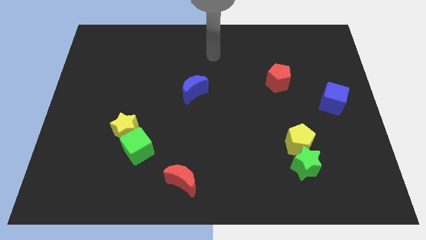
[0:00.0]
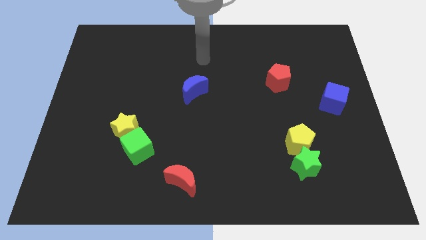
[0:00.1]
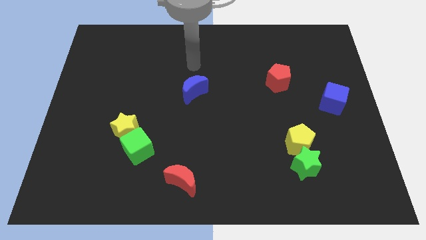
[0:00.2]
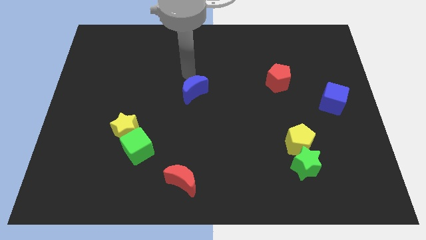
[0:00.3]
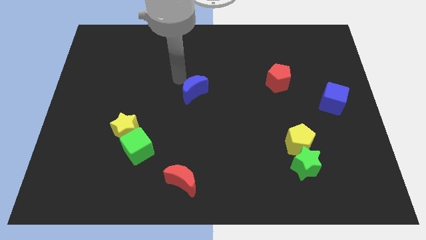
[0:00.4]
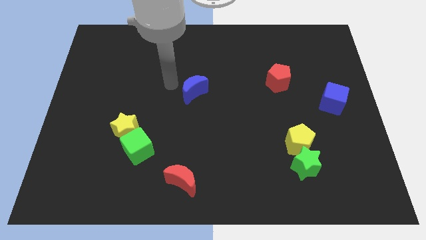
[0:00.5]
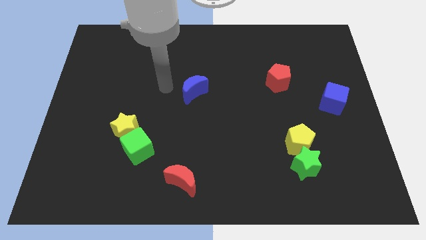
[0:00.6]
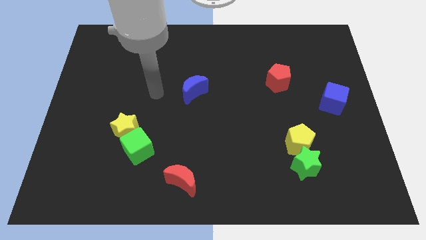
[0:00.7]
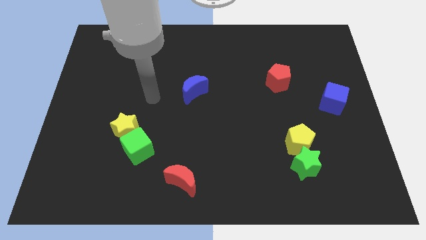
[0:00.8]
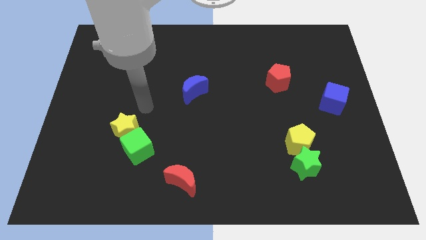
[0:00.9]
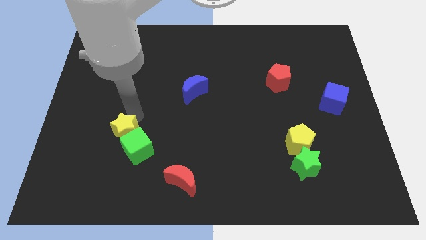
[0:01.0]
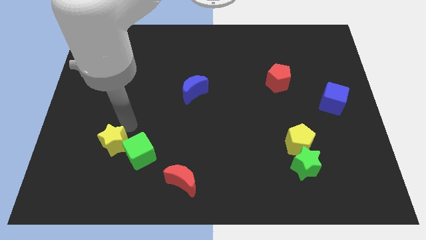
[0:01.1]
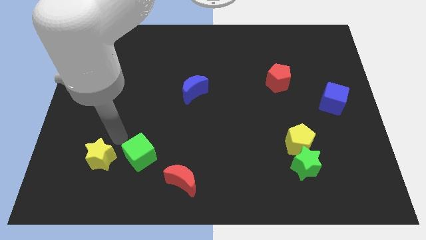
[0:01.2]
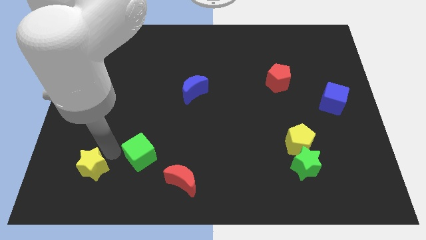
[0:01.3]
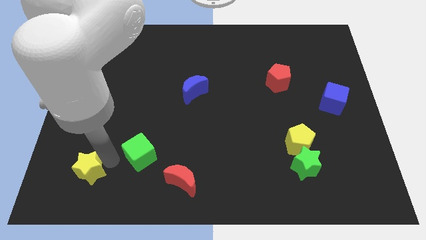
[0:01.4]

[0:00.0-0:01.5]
separate the green cube from the yellow star

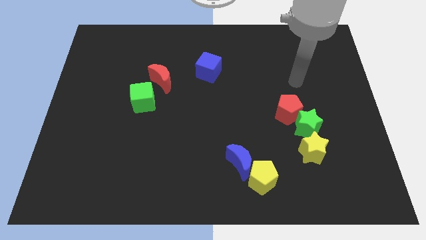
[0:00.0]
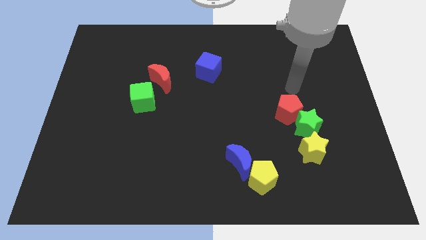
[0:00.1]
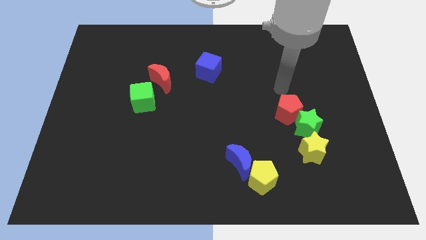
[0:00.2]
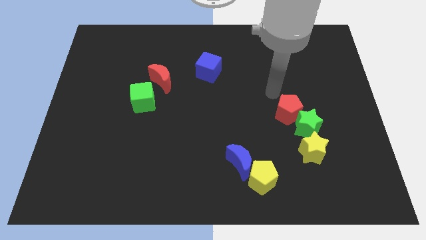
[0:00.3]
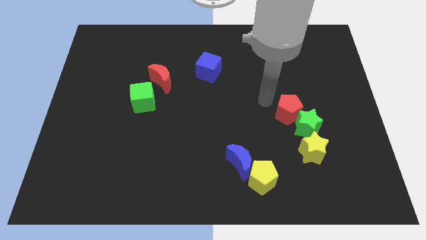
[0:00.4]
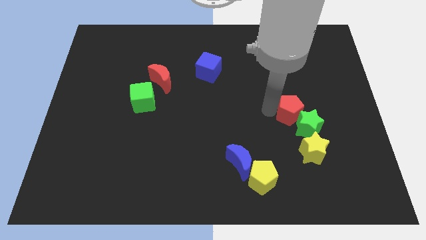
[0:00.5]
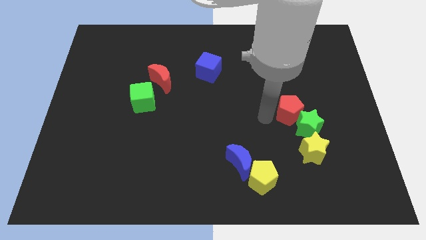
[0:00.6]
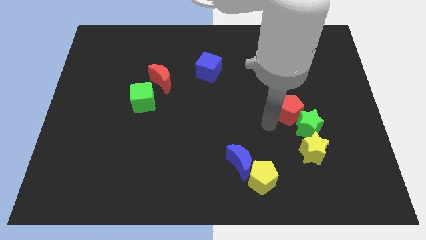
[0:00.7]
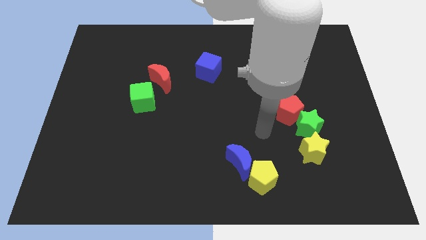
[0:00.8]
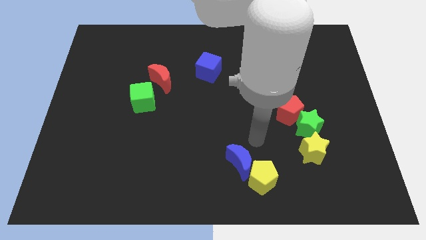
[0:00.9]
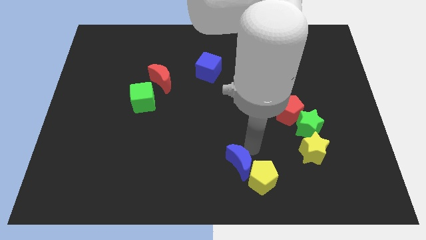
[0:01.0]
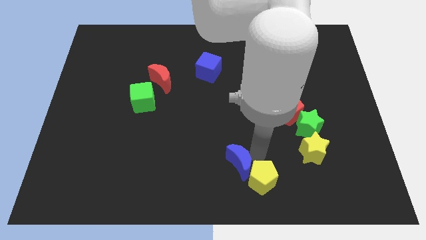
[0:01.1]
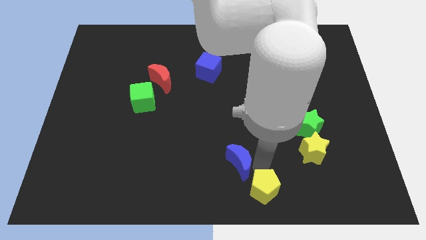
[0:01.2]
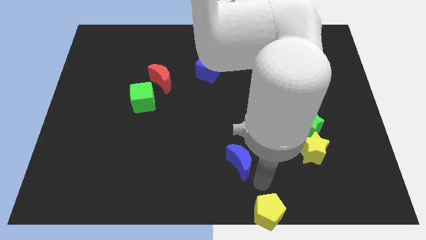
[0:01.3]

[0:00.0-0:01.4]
pull the blue moon apart from the yellow pentagon

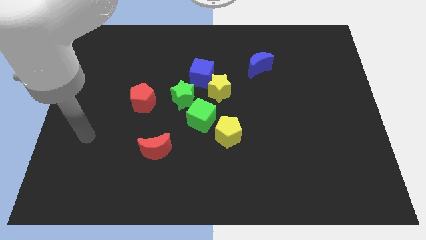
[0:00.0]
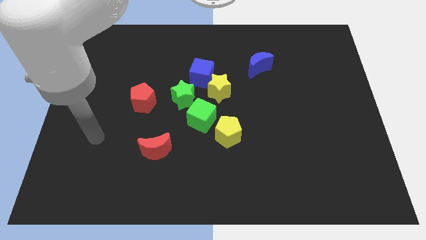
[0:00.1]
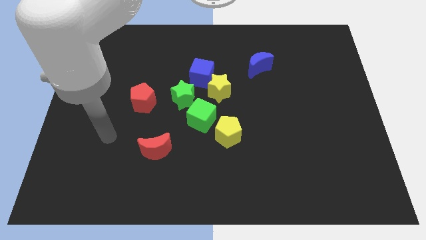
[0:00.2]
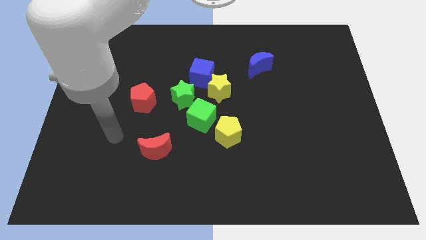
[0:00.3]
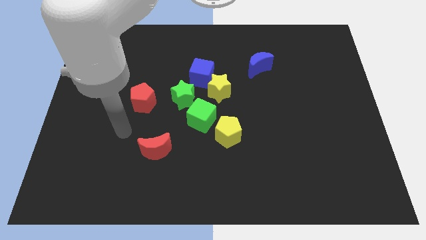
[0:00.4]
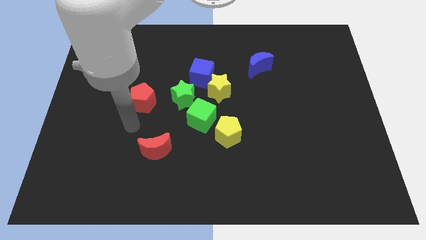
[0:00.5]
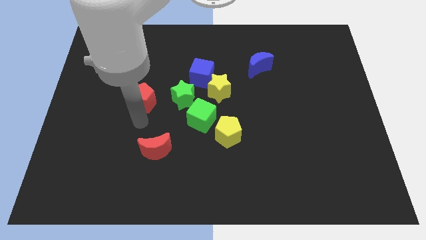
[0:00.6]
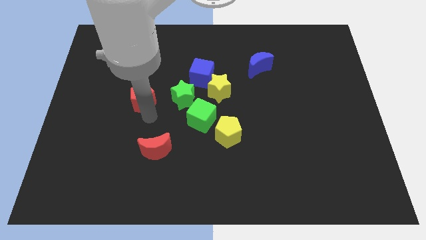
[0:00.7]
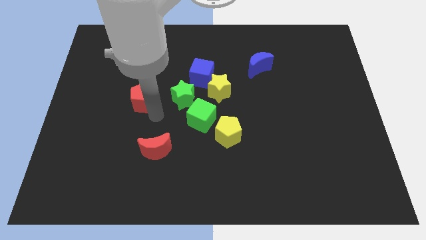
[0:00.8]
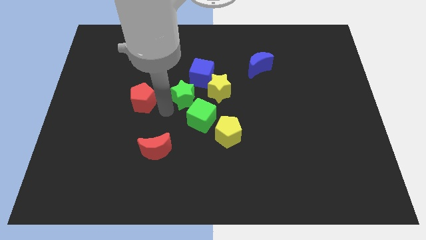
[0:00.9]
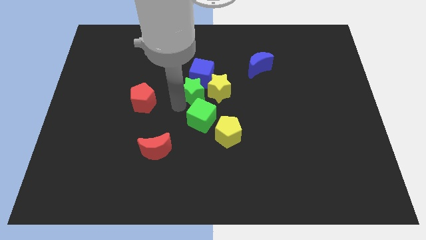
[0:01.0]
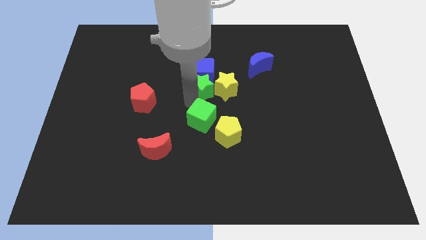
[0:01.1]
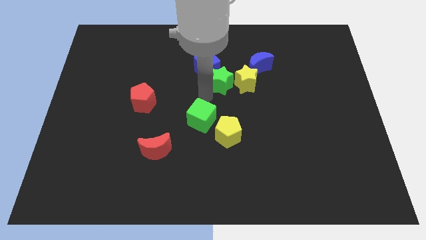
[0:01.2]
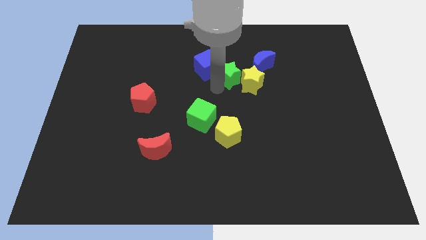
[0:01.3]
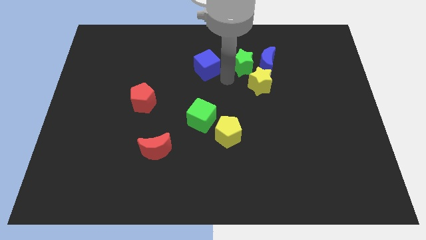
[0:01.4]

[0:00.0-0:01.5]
pull the blue cube apart from the yellow star and green star

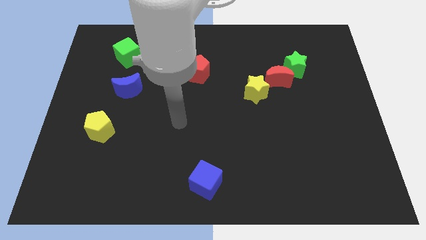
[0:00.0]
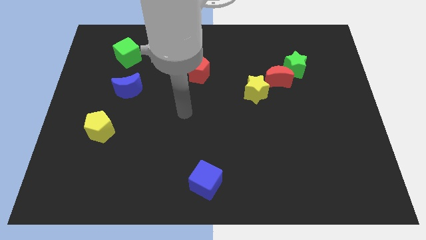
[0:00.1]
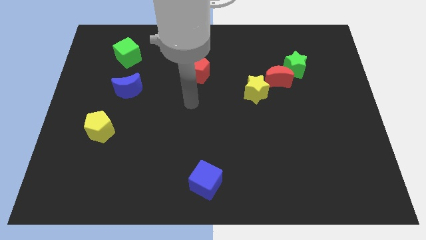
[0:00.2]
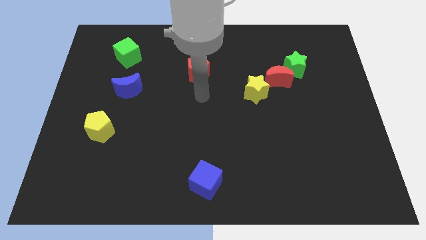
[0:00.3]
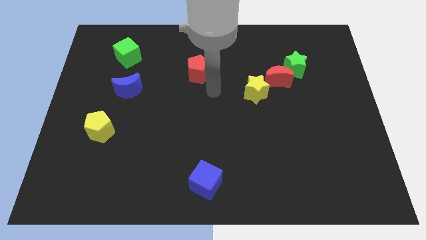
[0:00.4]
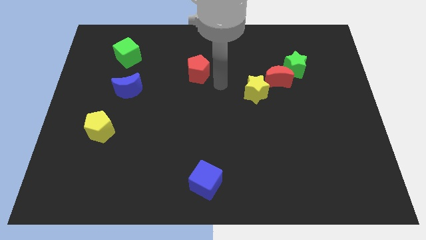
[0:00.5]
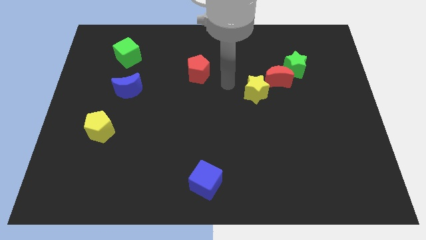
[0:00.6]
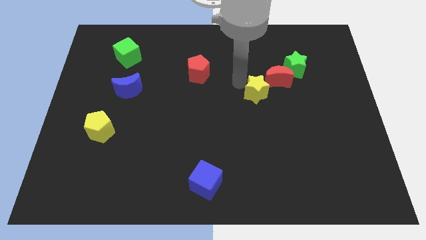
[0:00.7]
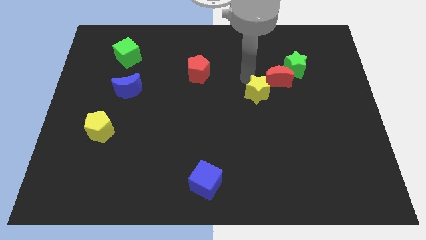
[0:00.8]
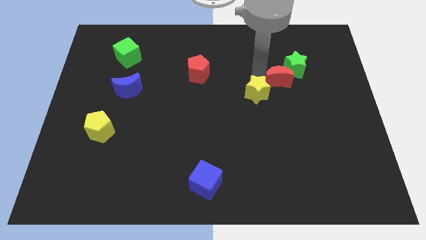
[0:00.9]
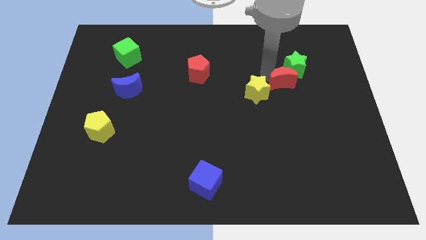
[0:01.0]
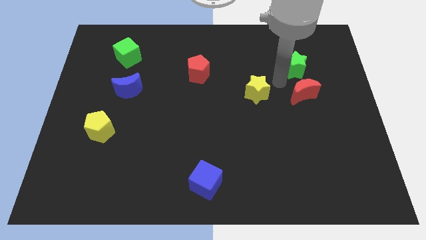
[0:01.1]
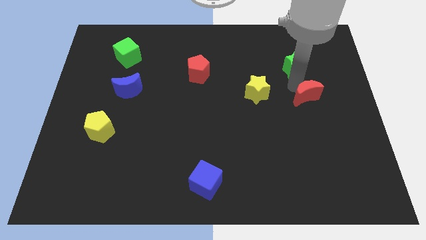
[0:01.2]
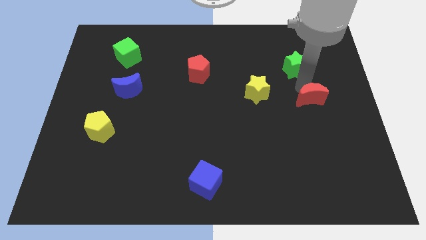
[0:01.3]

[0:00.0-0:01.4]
move the green star away from the red moon

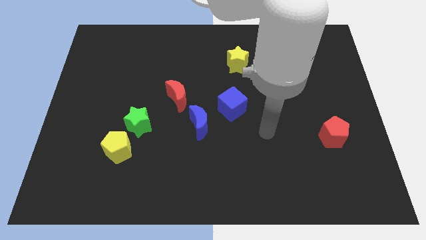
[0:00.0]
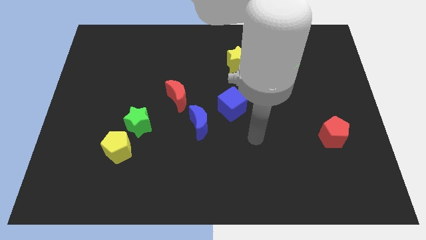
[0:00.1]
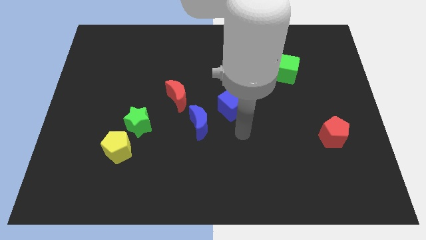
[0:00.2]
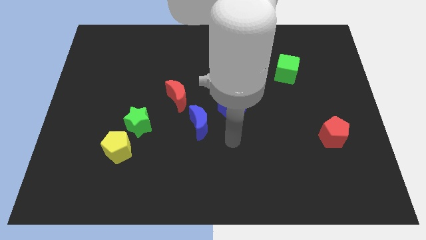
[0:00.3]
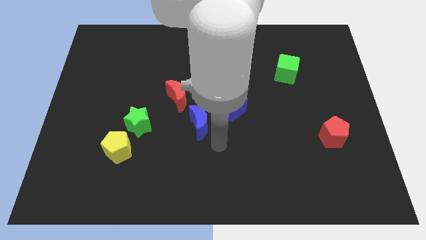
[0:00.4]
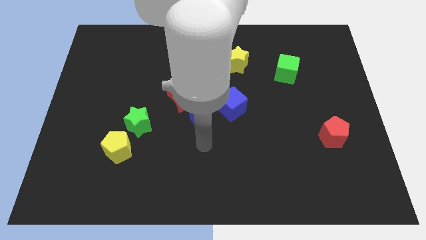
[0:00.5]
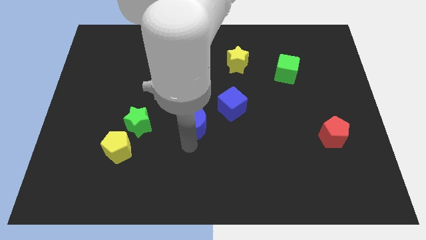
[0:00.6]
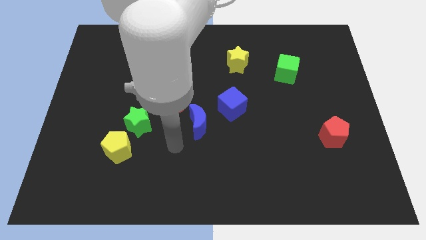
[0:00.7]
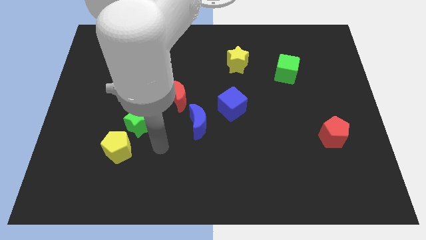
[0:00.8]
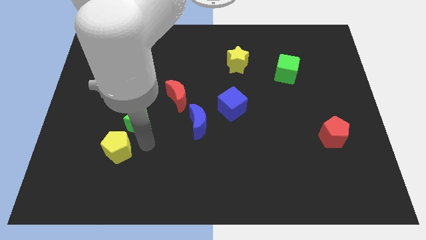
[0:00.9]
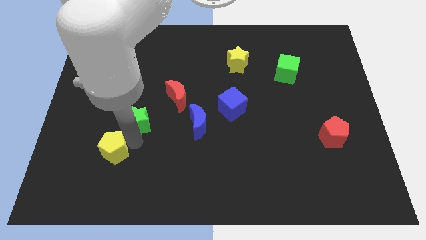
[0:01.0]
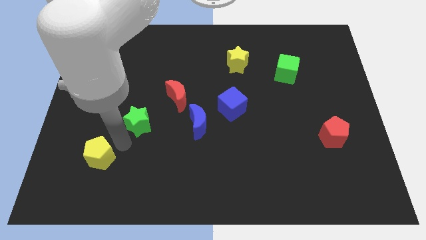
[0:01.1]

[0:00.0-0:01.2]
separate the green star from the yellow pentagon

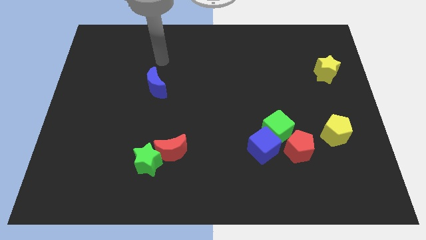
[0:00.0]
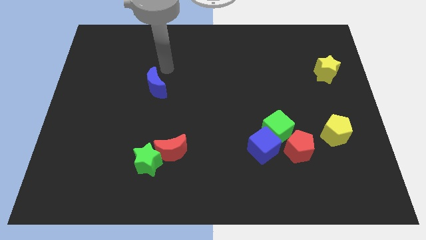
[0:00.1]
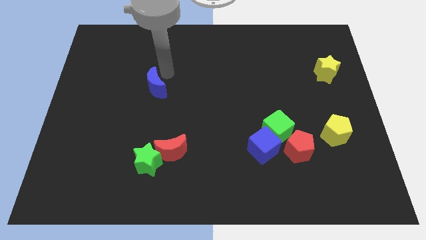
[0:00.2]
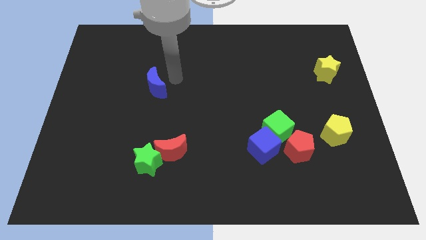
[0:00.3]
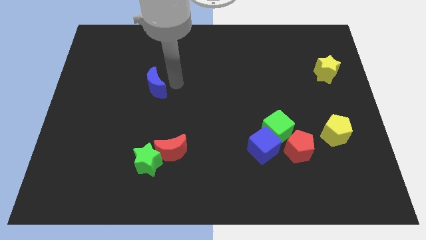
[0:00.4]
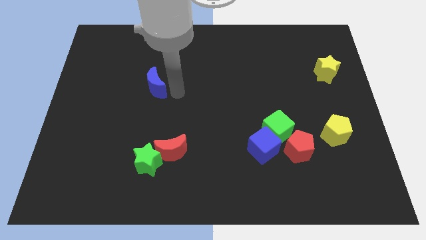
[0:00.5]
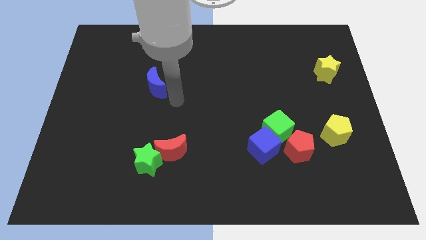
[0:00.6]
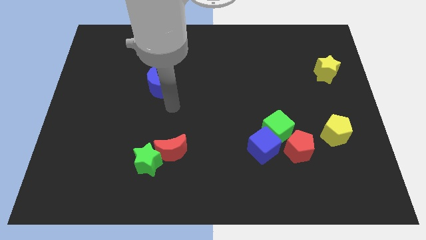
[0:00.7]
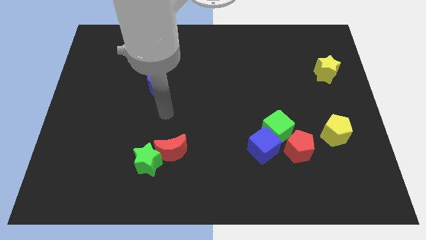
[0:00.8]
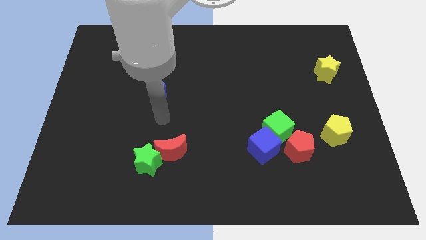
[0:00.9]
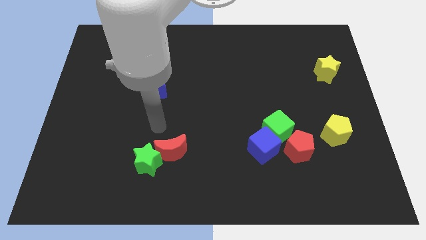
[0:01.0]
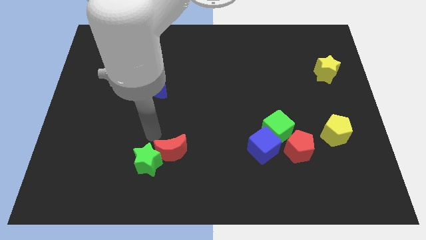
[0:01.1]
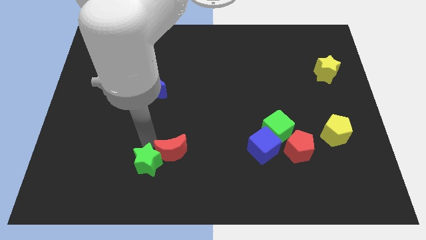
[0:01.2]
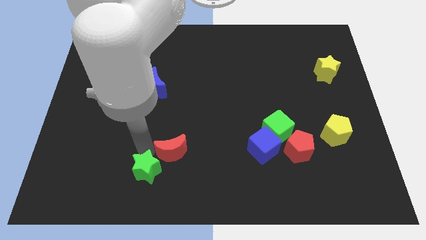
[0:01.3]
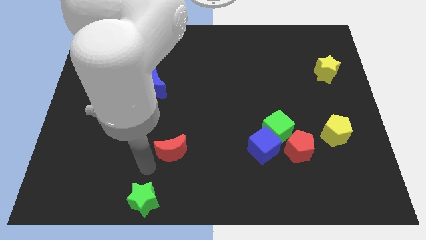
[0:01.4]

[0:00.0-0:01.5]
move the red moon away from the green star

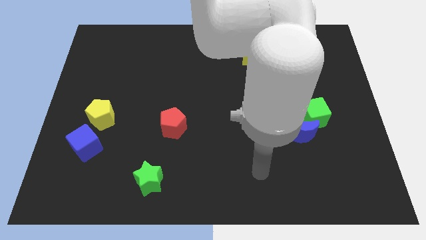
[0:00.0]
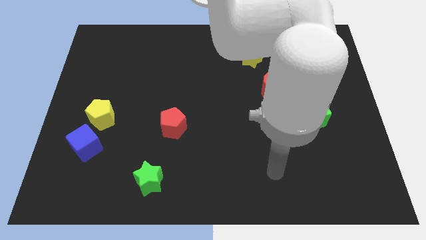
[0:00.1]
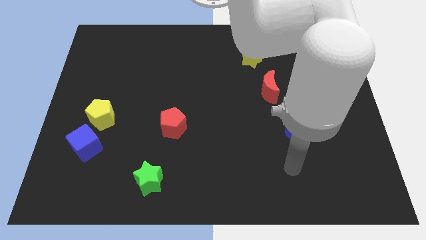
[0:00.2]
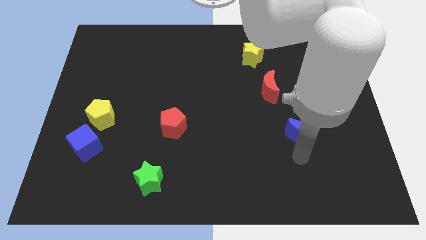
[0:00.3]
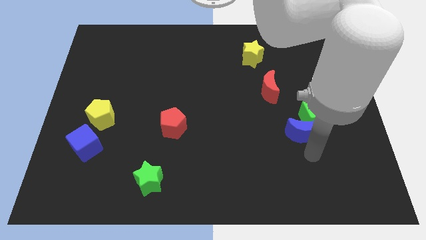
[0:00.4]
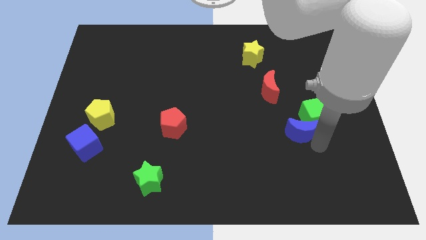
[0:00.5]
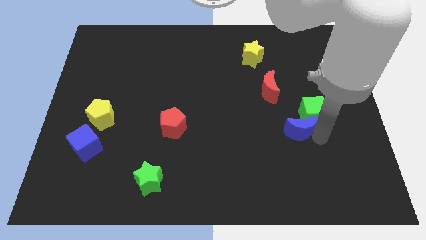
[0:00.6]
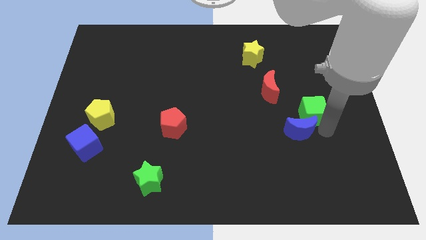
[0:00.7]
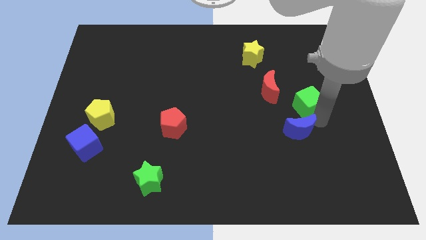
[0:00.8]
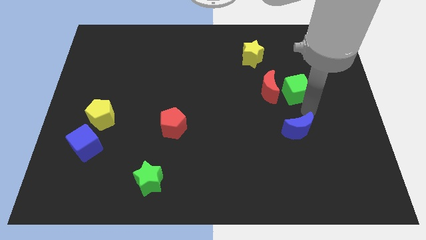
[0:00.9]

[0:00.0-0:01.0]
separate the blue moon from the green cube
